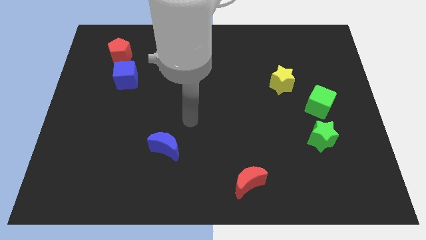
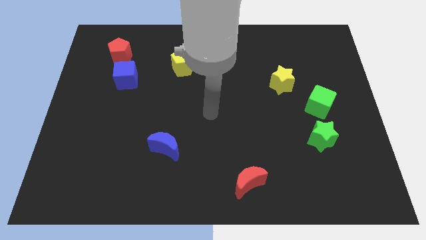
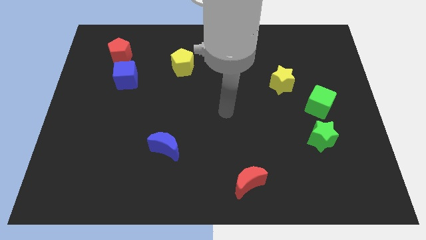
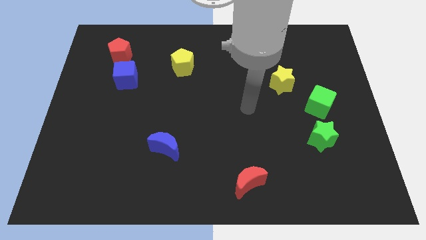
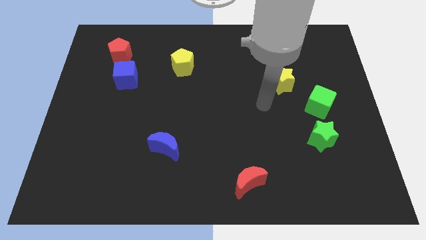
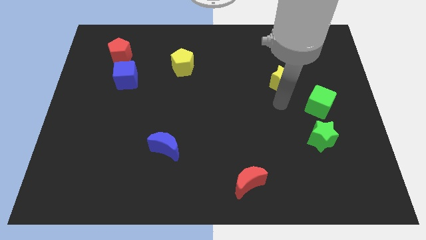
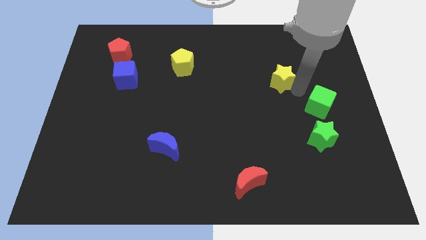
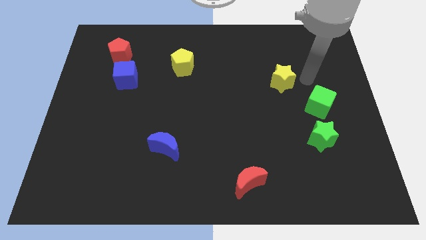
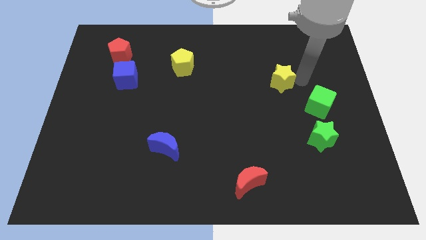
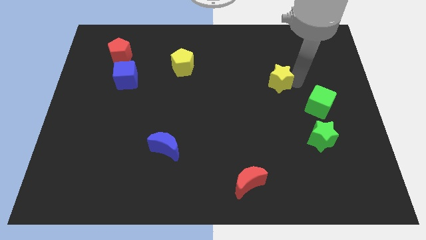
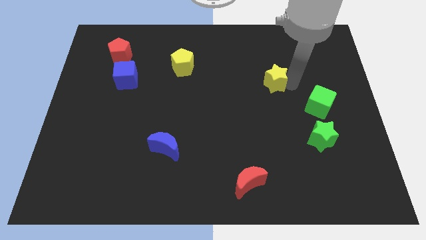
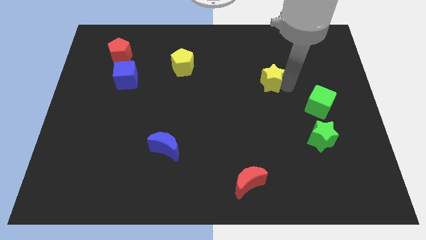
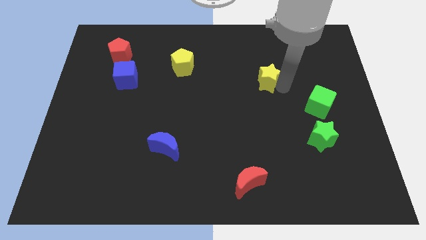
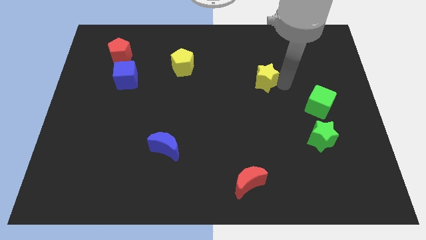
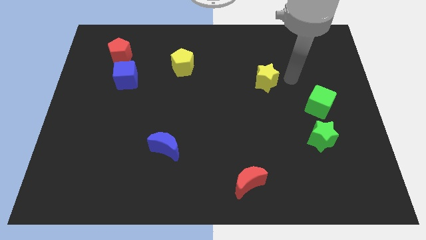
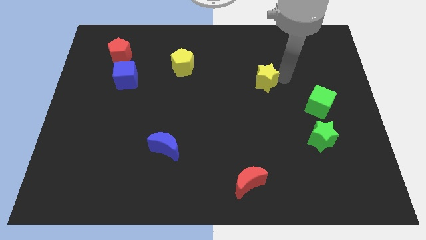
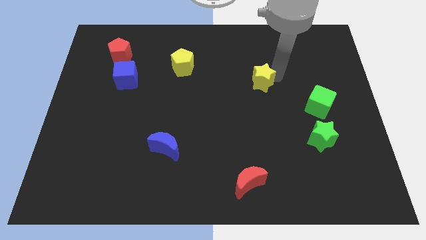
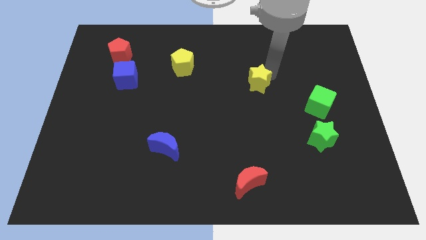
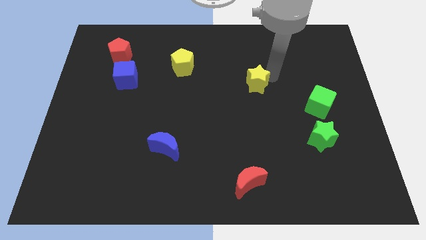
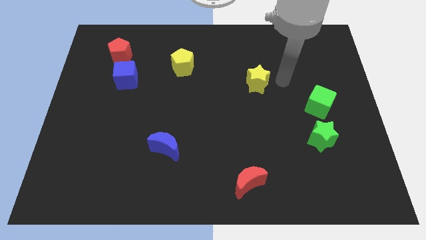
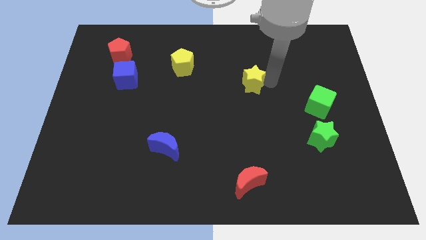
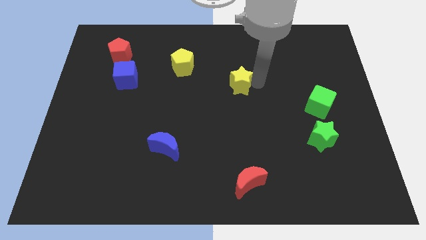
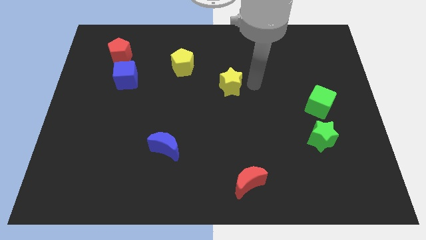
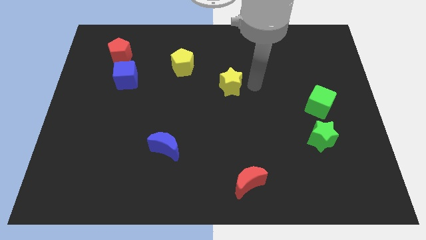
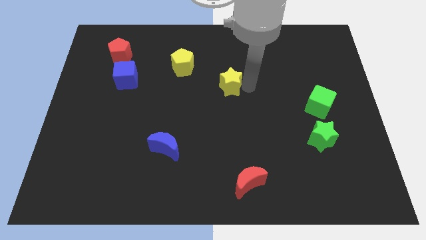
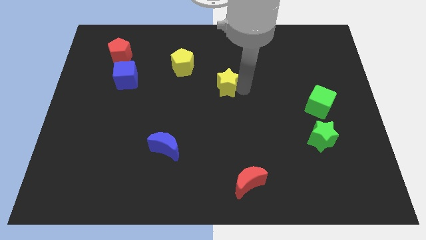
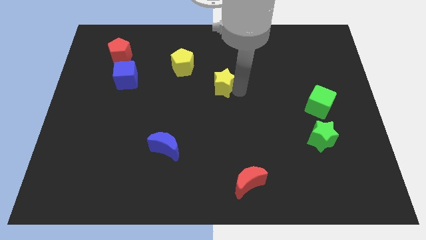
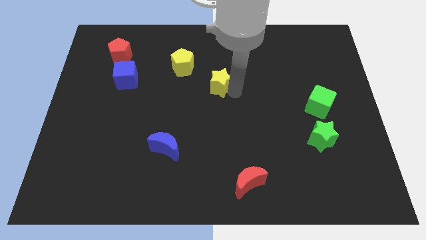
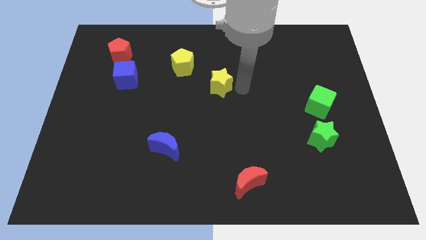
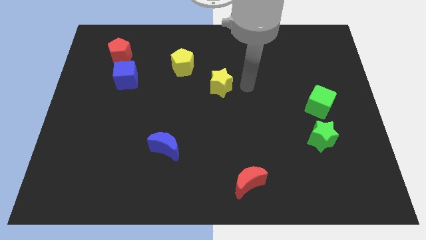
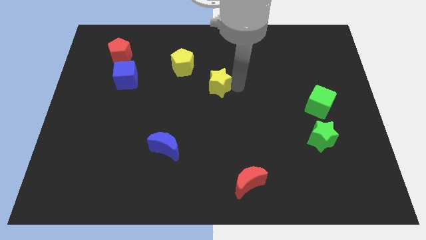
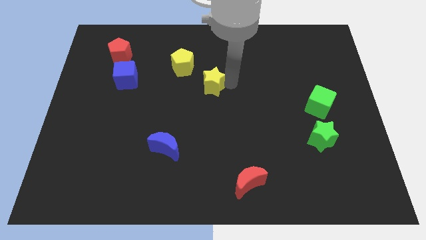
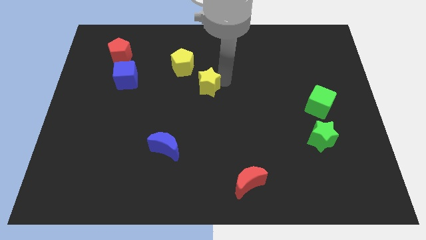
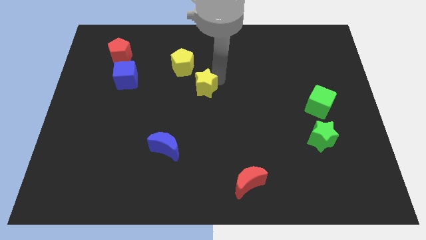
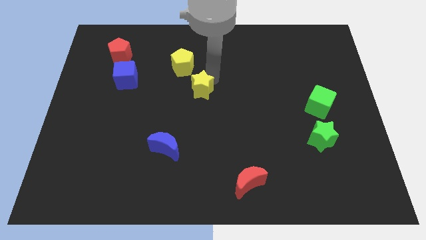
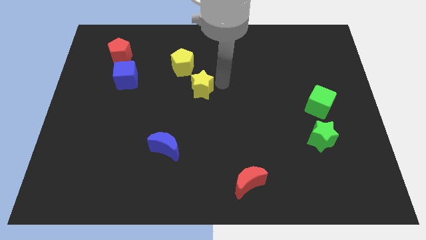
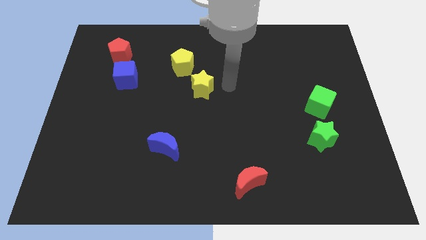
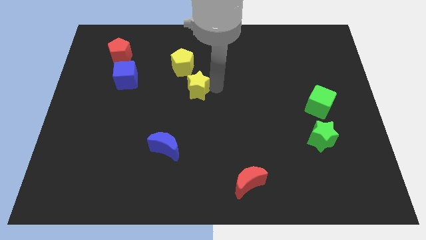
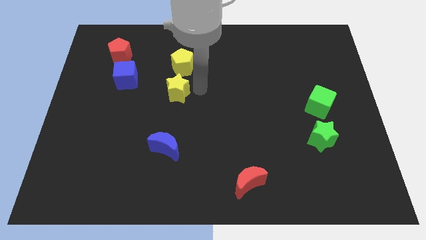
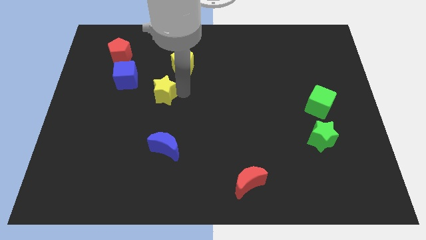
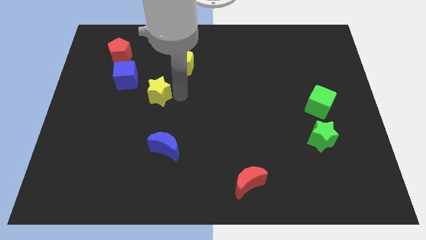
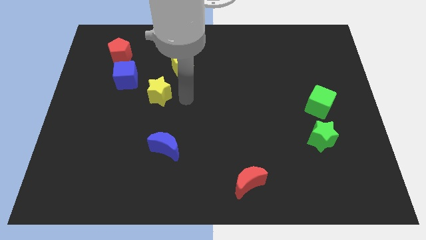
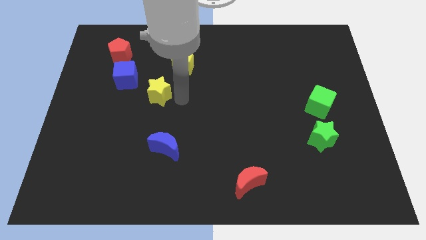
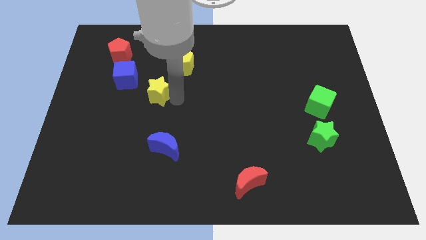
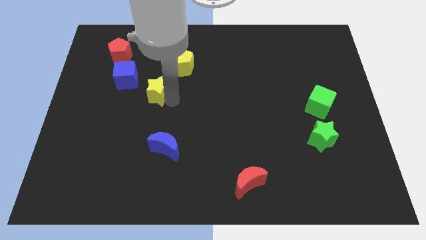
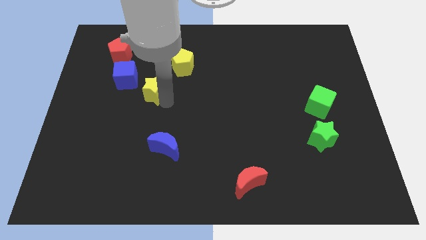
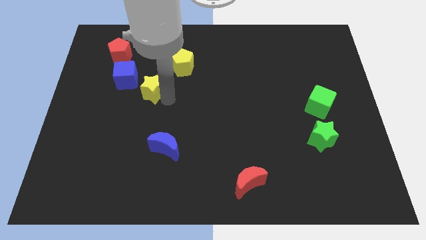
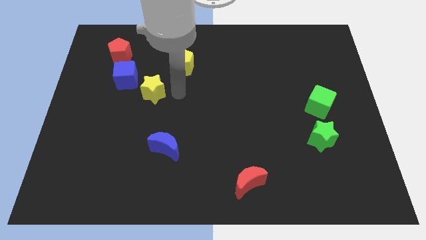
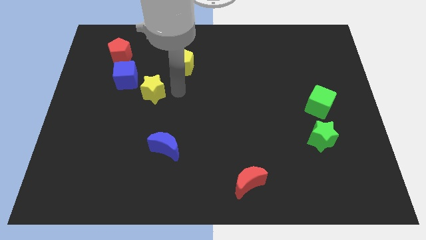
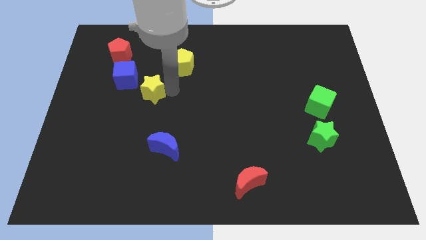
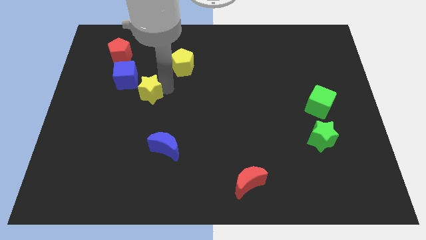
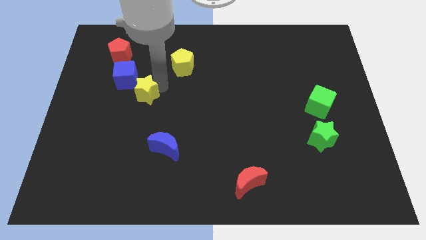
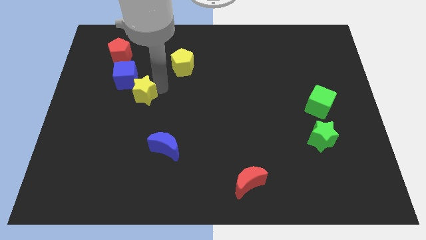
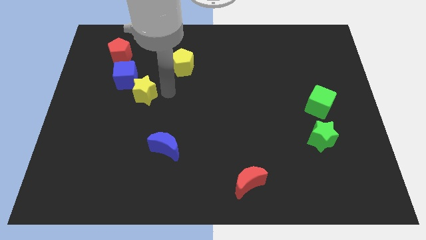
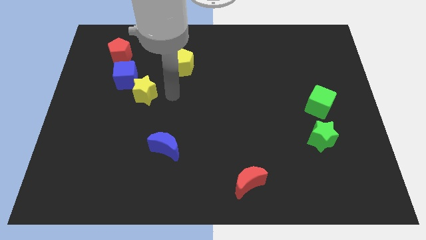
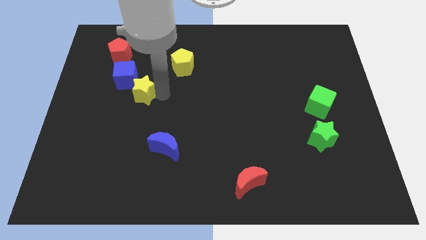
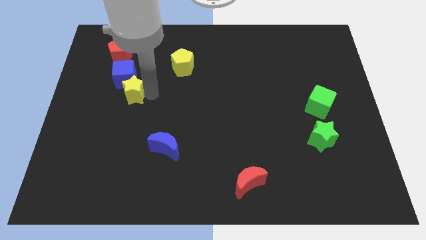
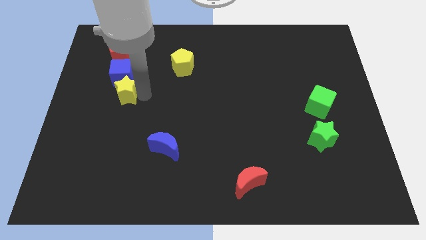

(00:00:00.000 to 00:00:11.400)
push the yellow star to the bottom of the red pentagon
